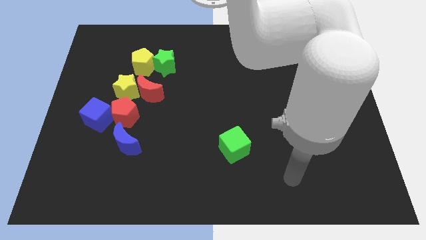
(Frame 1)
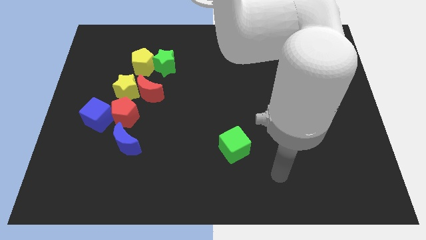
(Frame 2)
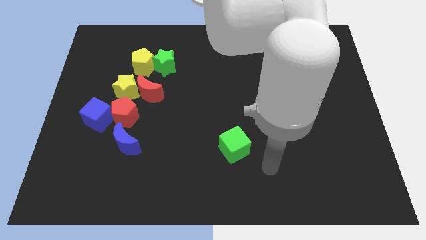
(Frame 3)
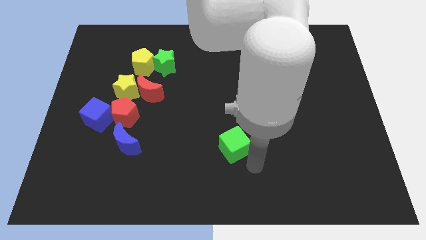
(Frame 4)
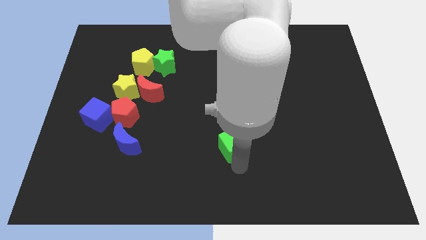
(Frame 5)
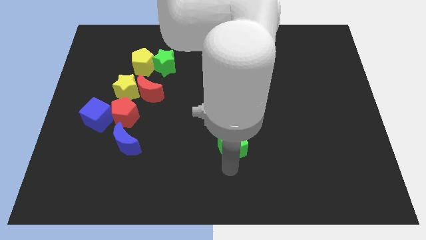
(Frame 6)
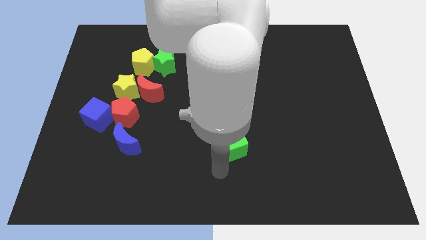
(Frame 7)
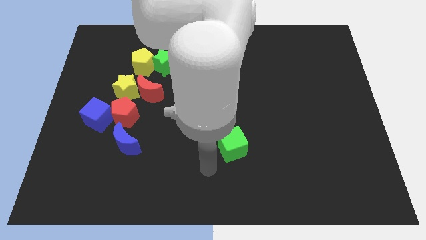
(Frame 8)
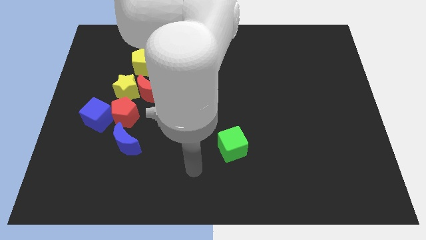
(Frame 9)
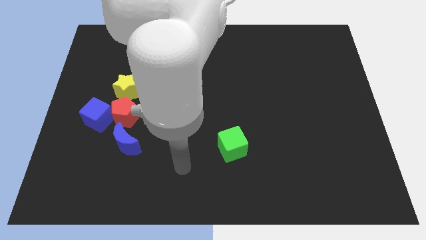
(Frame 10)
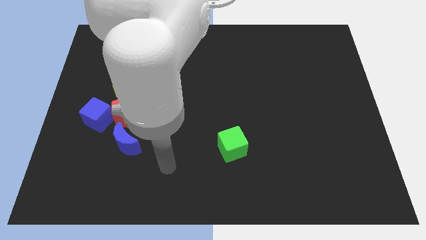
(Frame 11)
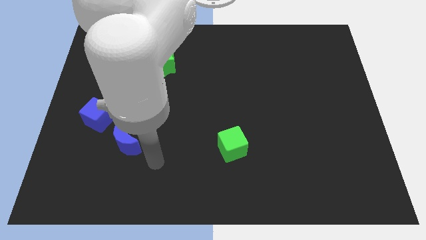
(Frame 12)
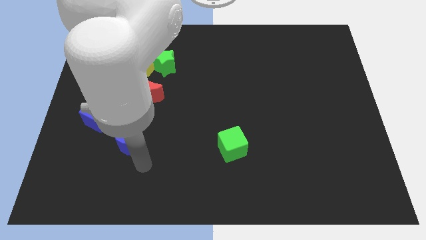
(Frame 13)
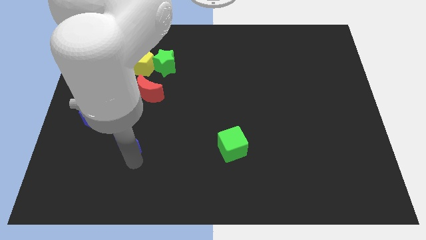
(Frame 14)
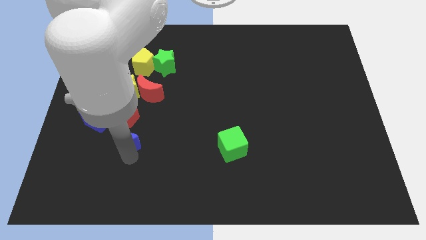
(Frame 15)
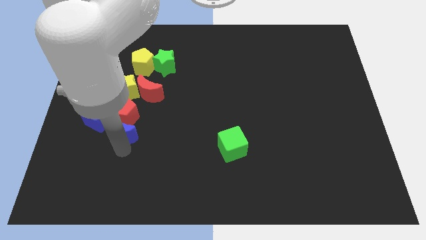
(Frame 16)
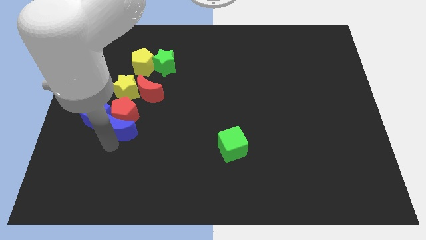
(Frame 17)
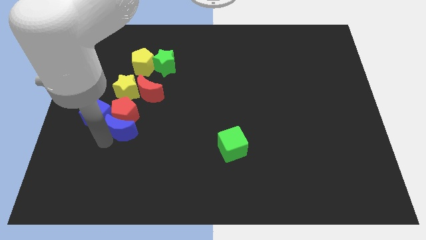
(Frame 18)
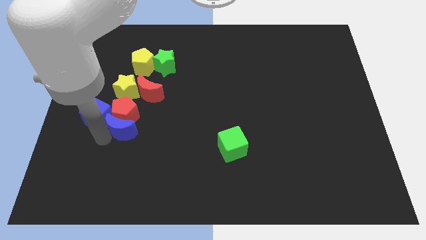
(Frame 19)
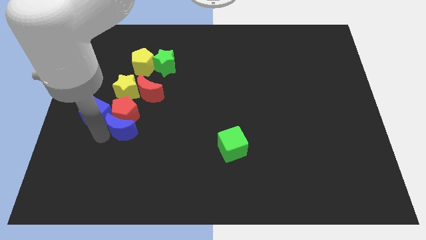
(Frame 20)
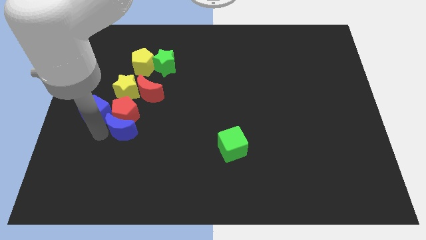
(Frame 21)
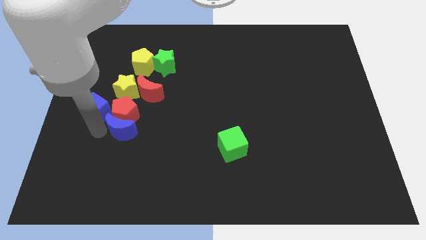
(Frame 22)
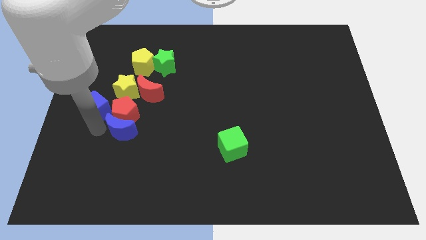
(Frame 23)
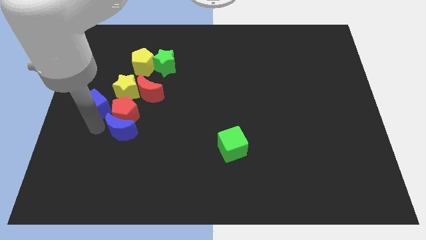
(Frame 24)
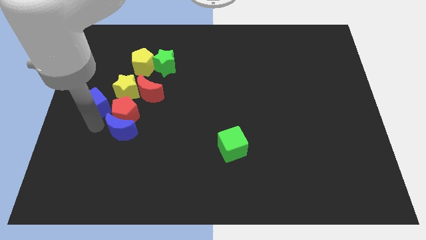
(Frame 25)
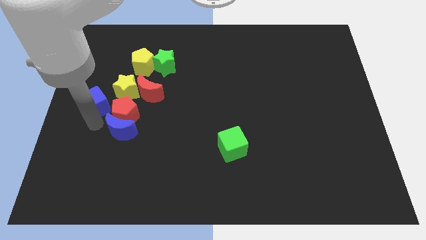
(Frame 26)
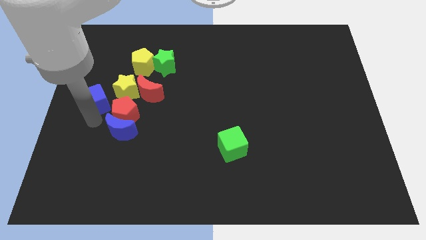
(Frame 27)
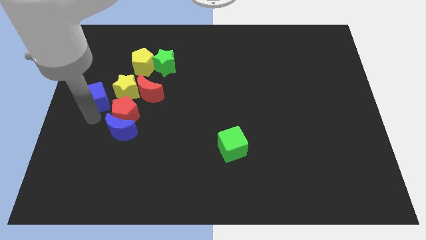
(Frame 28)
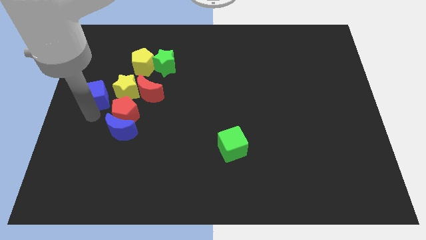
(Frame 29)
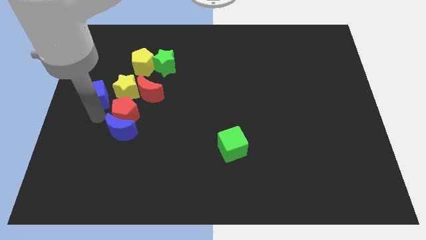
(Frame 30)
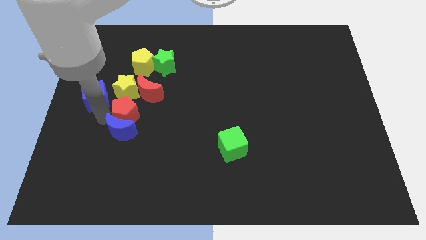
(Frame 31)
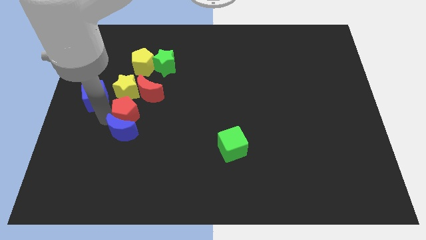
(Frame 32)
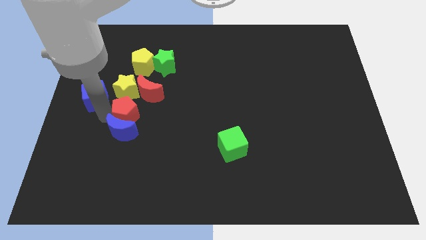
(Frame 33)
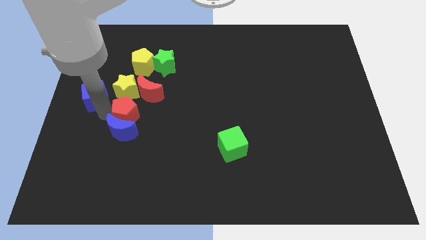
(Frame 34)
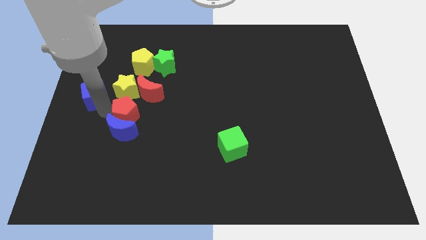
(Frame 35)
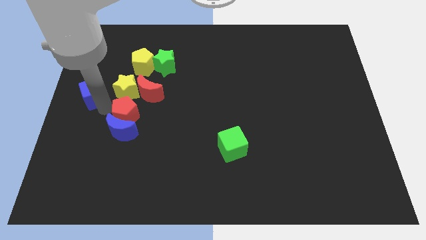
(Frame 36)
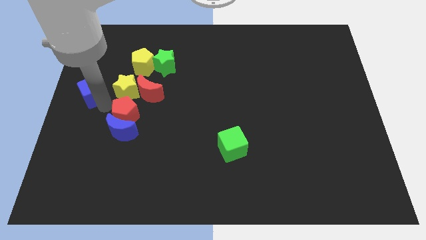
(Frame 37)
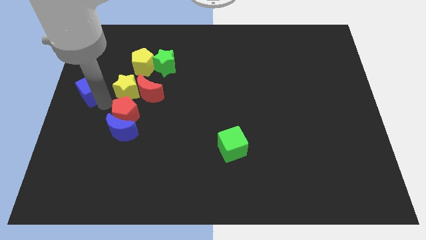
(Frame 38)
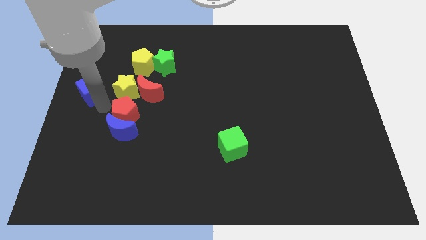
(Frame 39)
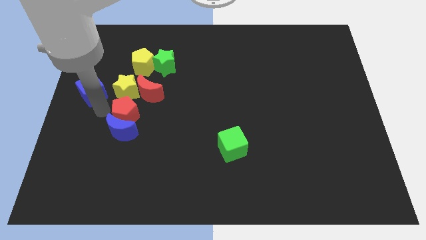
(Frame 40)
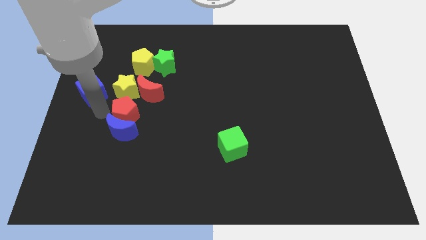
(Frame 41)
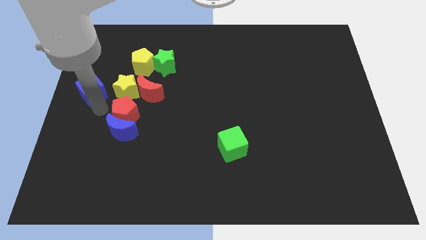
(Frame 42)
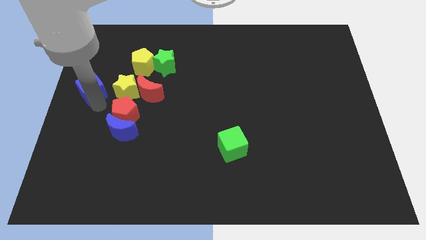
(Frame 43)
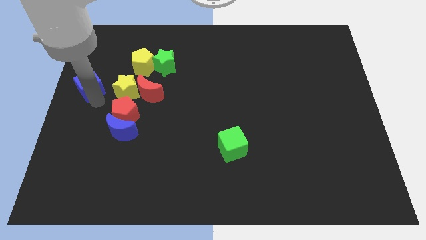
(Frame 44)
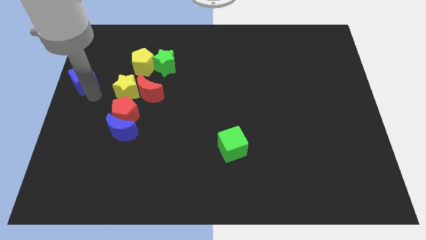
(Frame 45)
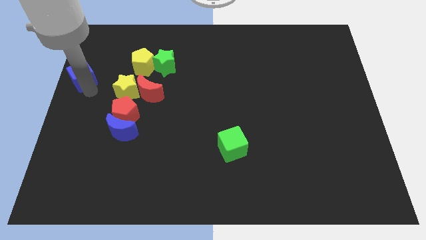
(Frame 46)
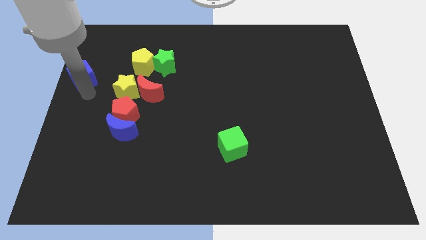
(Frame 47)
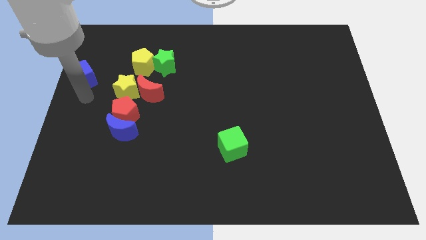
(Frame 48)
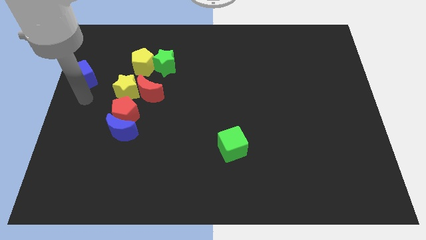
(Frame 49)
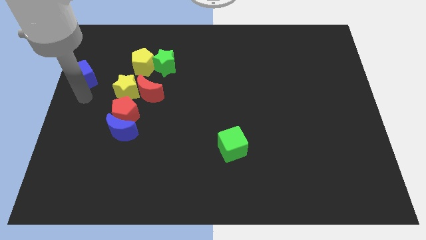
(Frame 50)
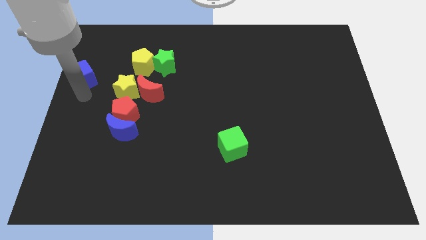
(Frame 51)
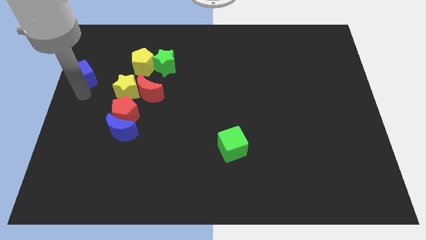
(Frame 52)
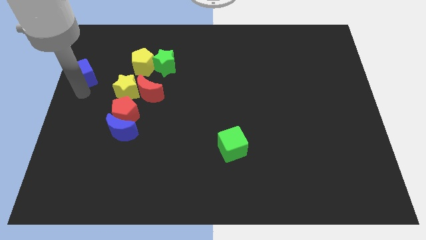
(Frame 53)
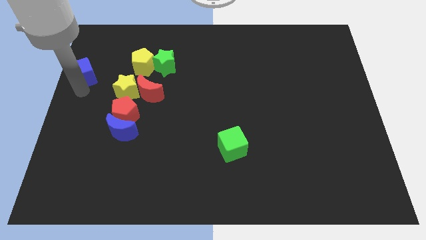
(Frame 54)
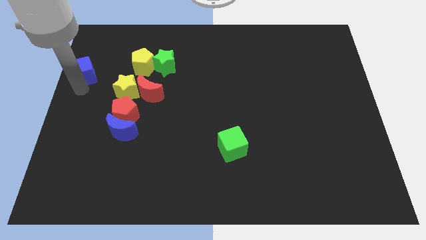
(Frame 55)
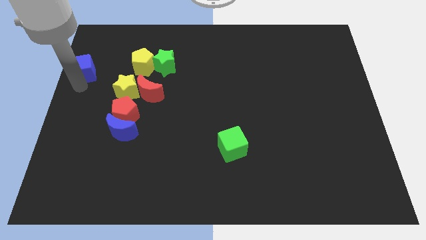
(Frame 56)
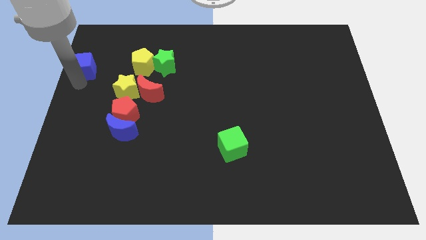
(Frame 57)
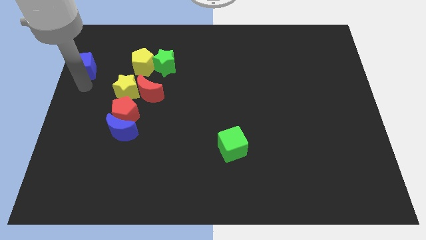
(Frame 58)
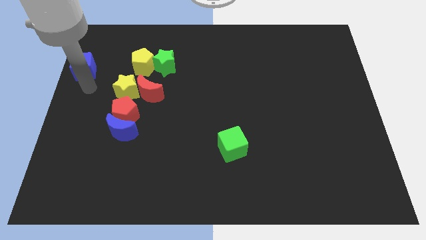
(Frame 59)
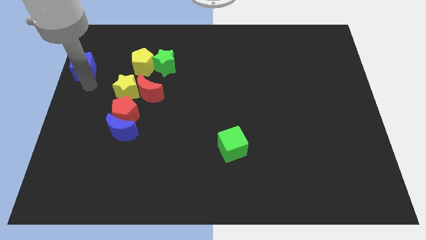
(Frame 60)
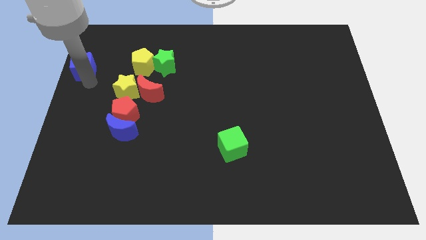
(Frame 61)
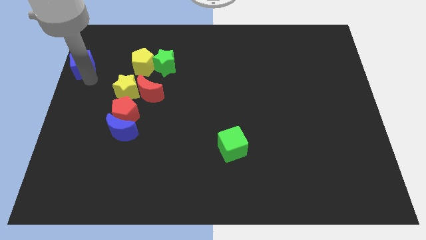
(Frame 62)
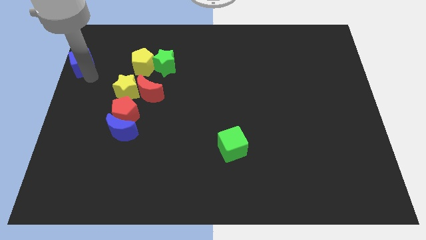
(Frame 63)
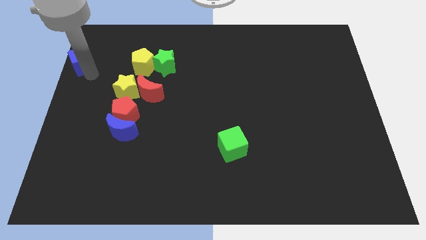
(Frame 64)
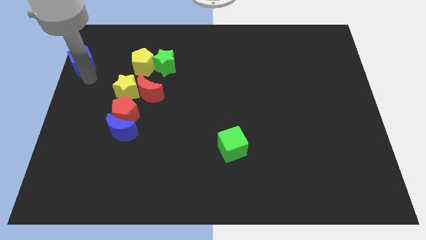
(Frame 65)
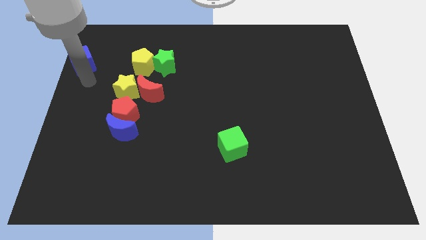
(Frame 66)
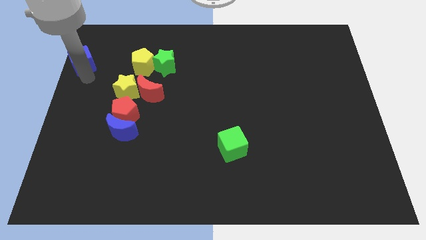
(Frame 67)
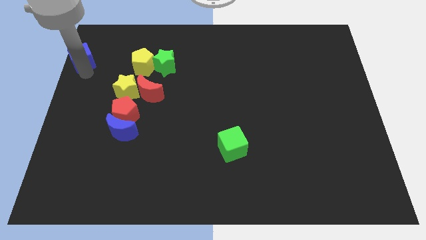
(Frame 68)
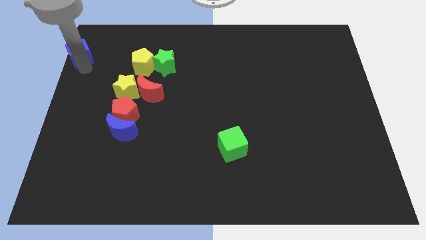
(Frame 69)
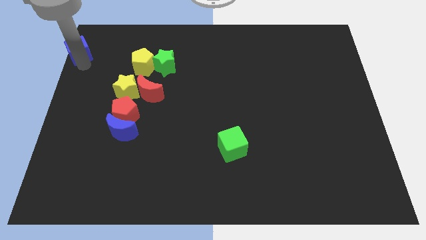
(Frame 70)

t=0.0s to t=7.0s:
put the blue cube to the upper left corner

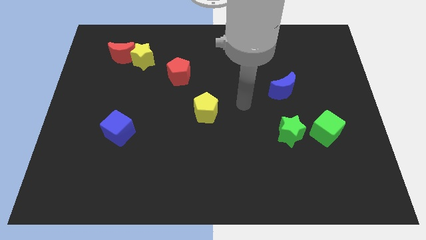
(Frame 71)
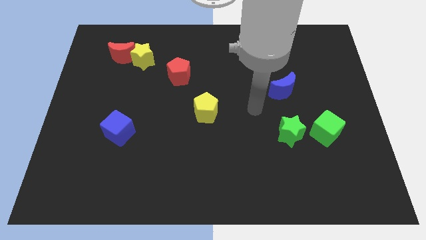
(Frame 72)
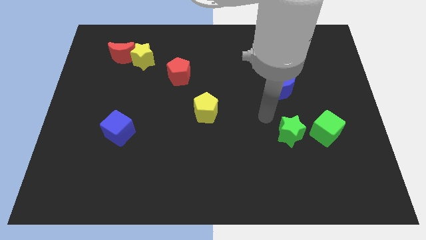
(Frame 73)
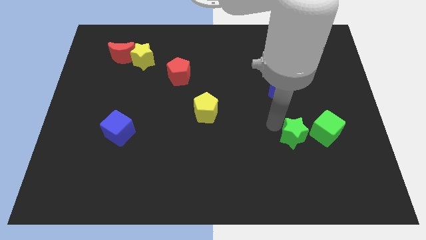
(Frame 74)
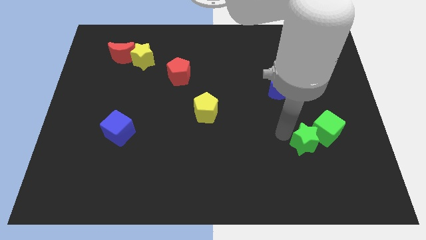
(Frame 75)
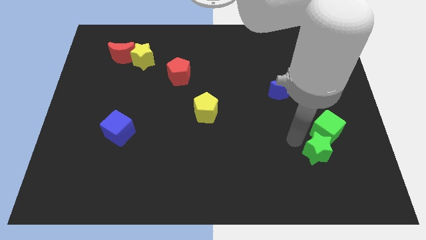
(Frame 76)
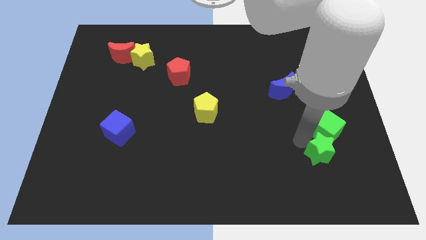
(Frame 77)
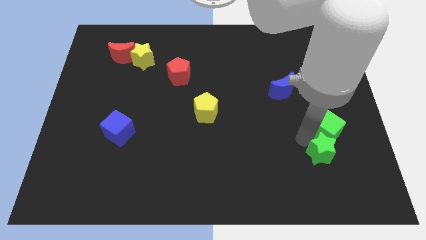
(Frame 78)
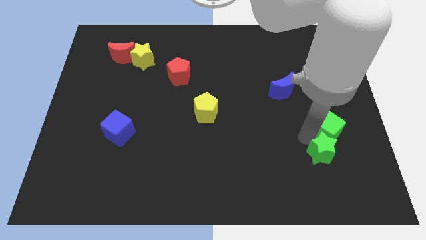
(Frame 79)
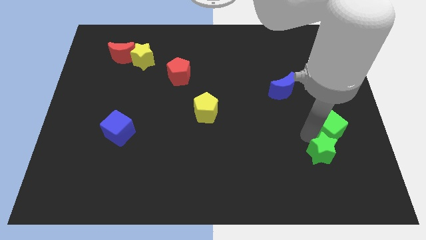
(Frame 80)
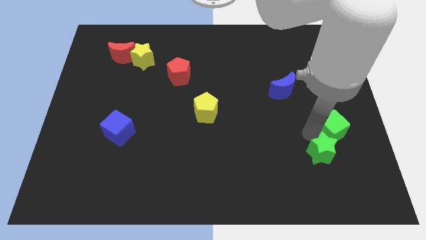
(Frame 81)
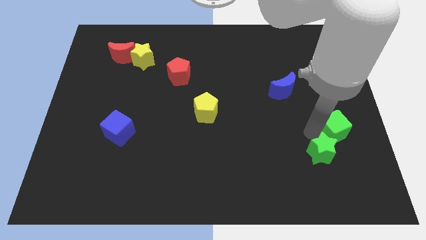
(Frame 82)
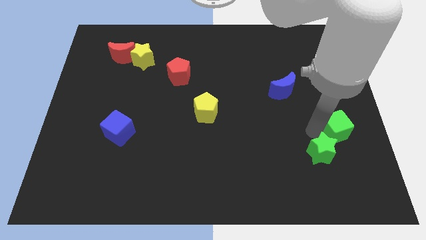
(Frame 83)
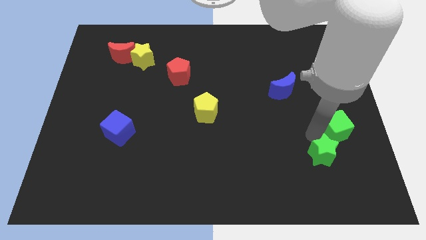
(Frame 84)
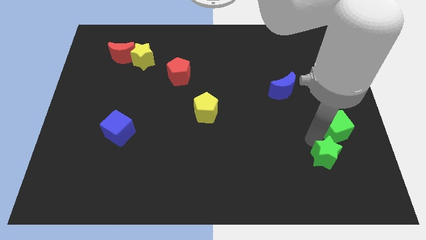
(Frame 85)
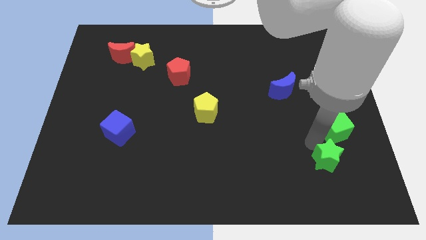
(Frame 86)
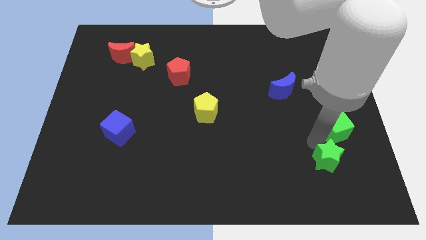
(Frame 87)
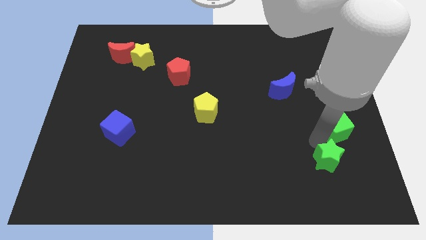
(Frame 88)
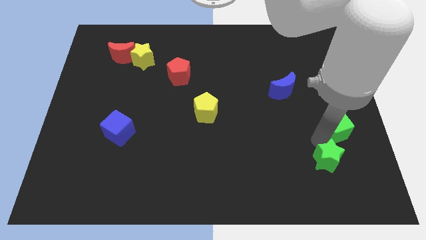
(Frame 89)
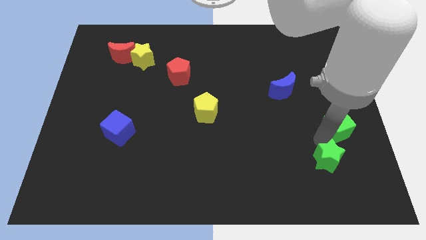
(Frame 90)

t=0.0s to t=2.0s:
put the green cube to the right side of the board
